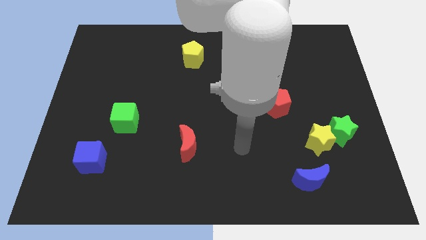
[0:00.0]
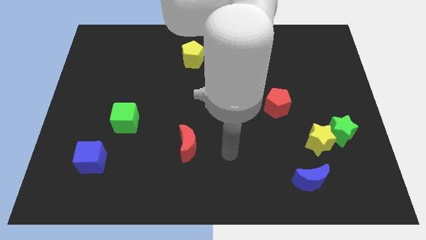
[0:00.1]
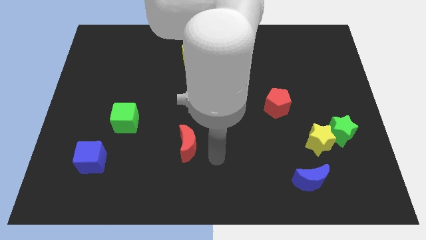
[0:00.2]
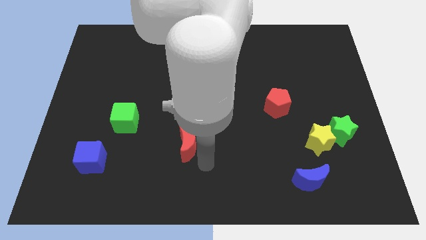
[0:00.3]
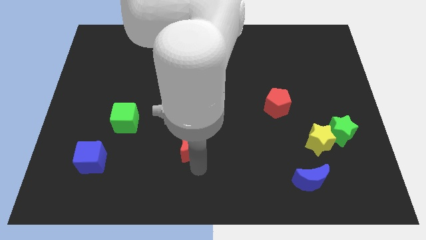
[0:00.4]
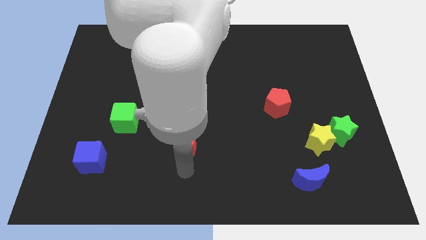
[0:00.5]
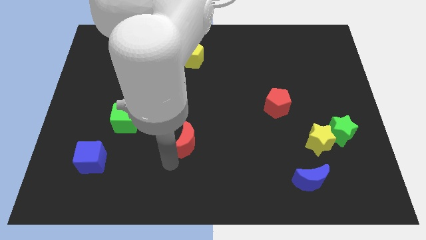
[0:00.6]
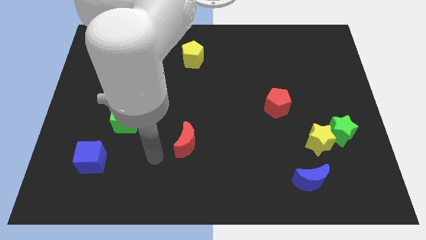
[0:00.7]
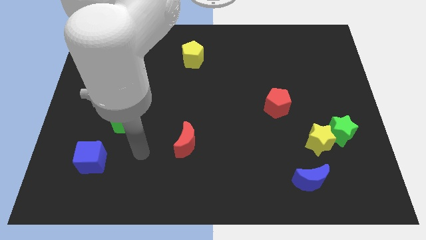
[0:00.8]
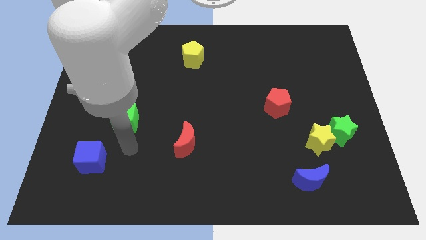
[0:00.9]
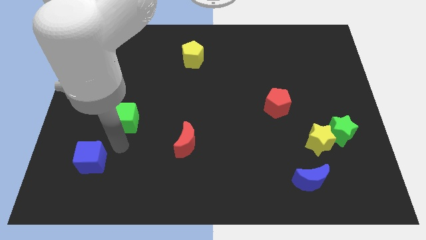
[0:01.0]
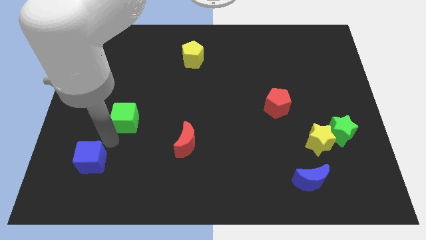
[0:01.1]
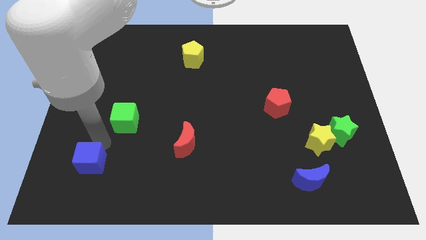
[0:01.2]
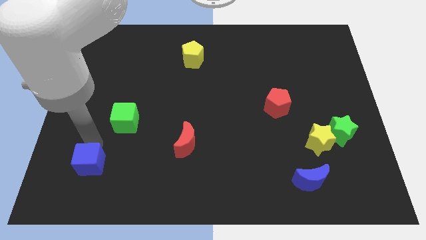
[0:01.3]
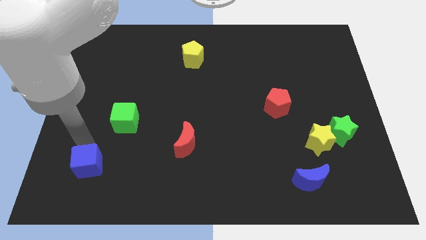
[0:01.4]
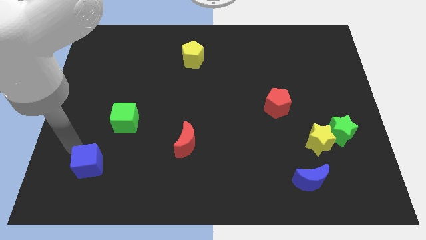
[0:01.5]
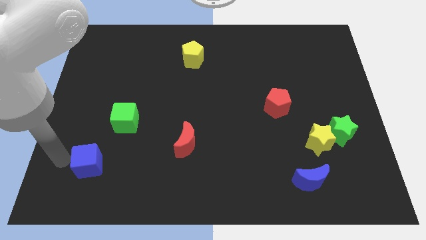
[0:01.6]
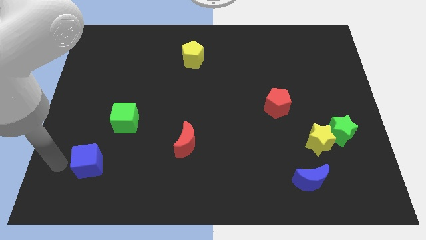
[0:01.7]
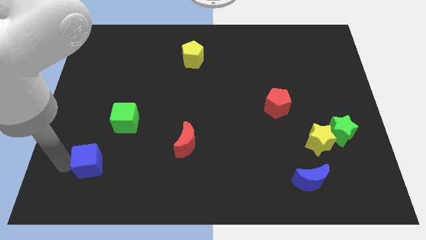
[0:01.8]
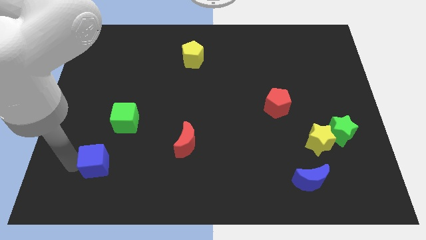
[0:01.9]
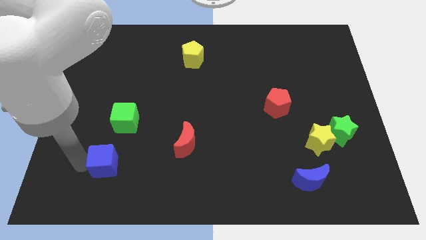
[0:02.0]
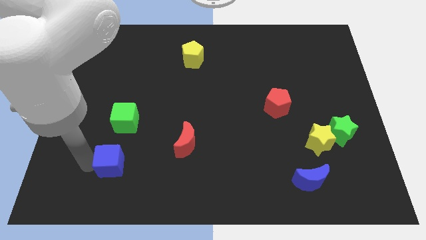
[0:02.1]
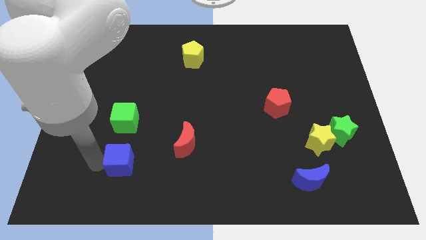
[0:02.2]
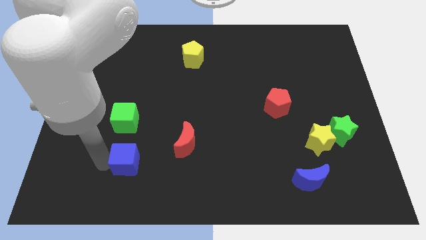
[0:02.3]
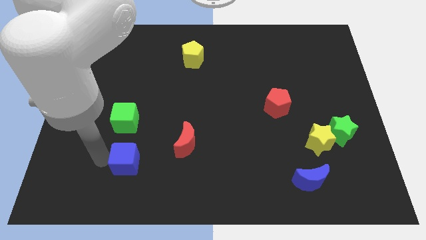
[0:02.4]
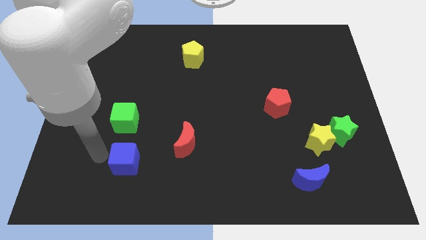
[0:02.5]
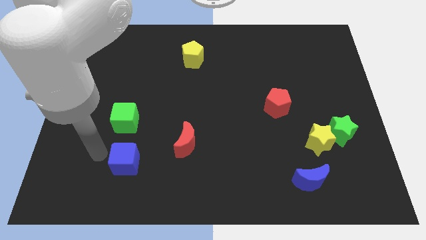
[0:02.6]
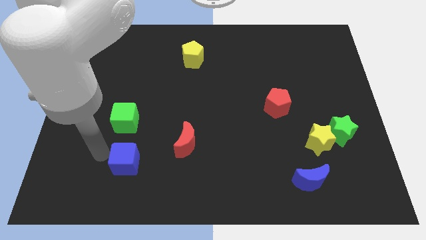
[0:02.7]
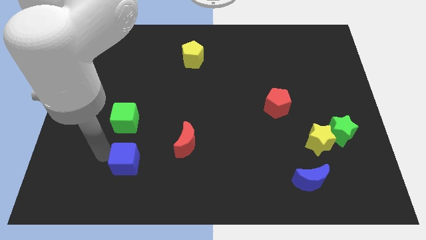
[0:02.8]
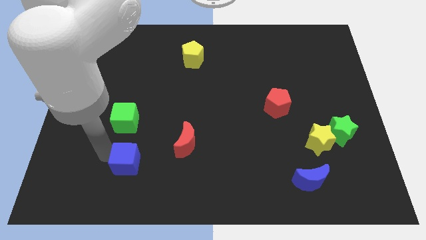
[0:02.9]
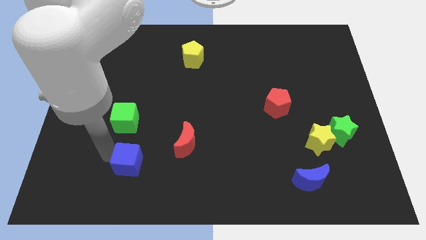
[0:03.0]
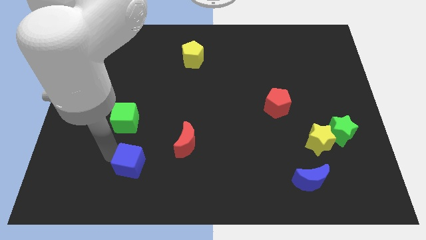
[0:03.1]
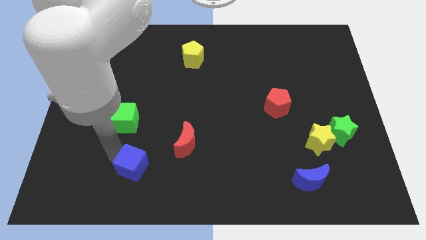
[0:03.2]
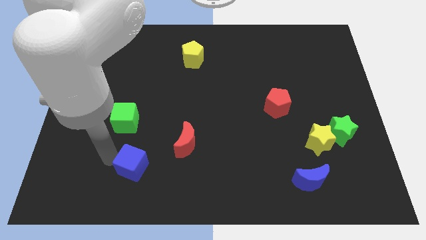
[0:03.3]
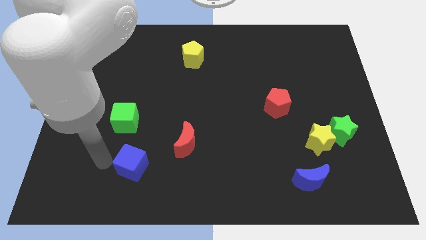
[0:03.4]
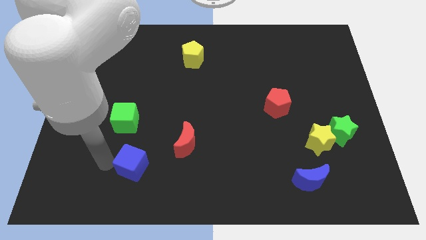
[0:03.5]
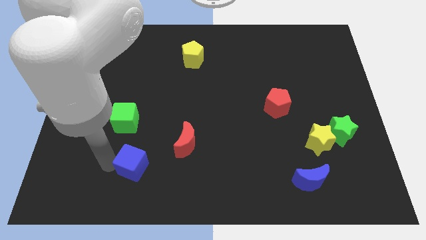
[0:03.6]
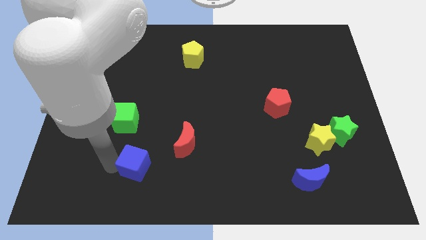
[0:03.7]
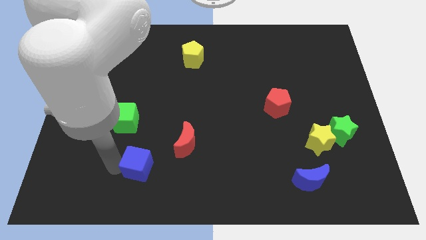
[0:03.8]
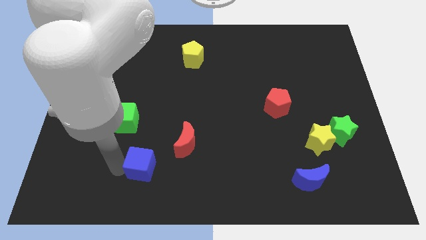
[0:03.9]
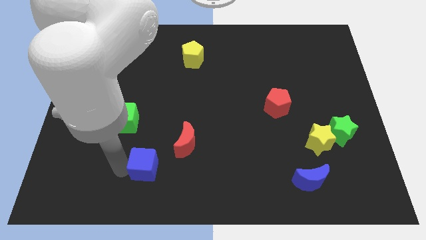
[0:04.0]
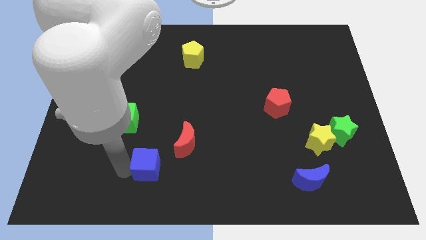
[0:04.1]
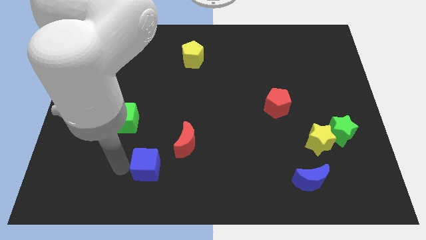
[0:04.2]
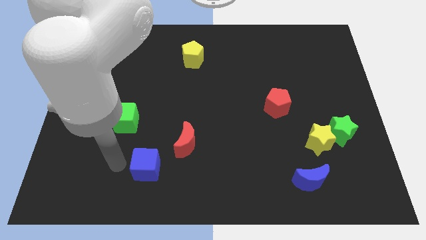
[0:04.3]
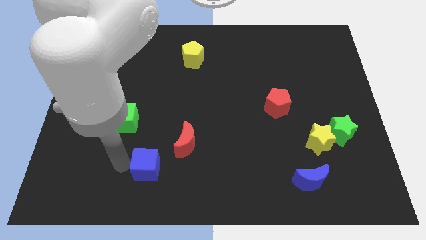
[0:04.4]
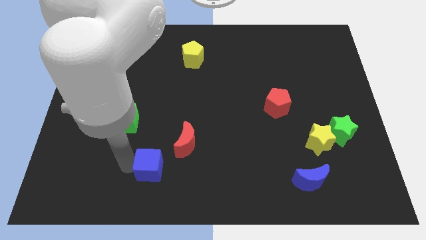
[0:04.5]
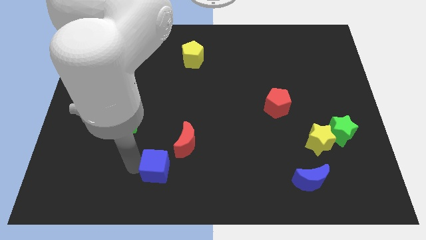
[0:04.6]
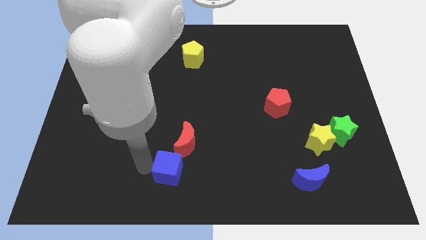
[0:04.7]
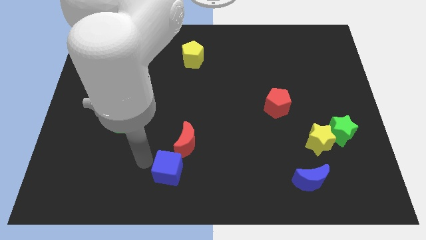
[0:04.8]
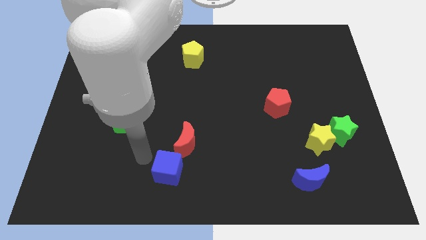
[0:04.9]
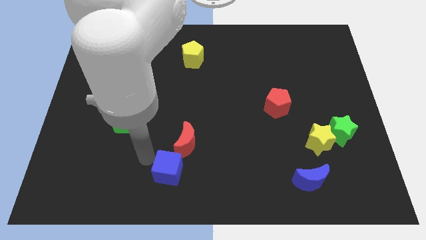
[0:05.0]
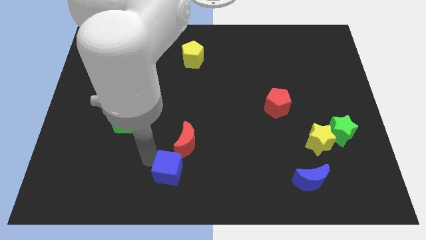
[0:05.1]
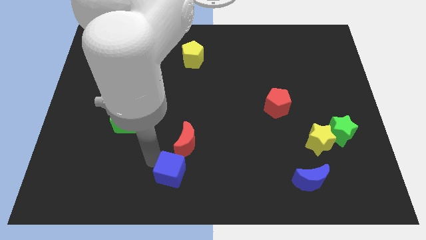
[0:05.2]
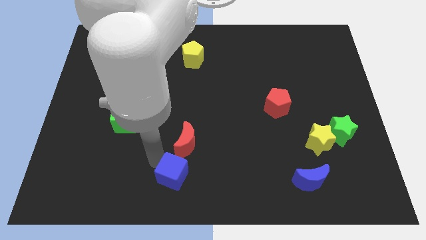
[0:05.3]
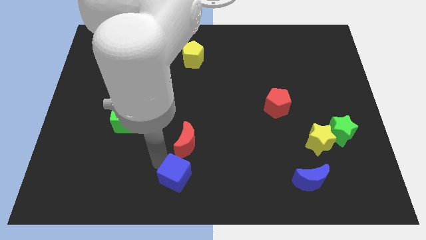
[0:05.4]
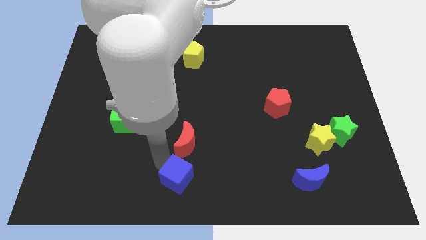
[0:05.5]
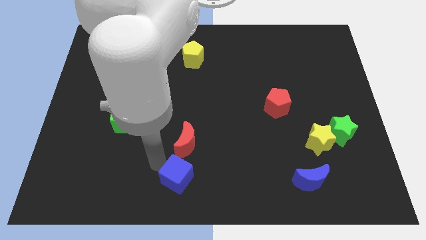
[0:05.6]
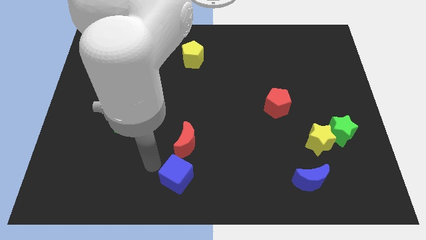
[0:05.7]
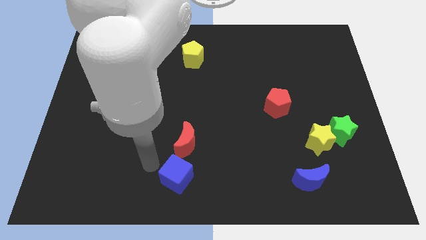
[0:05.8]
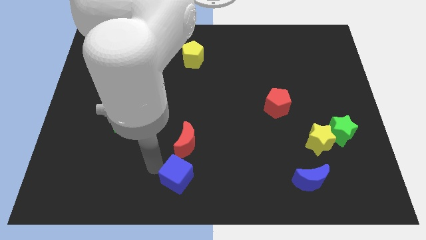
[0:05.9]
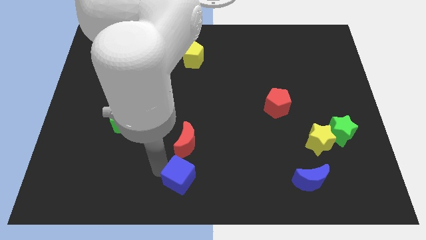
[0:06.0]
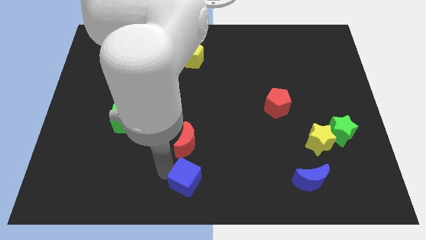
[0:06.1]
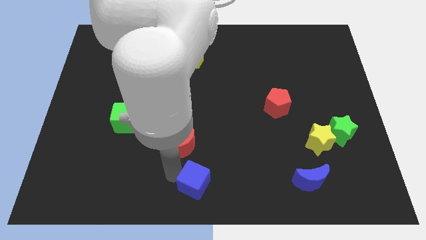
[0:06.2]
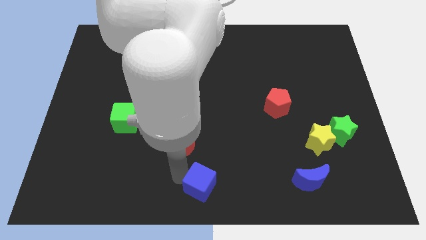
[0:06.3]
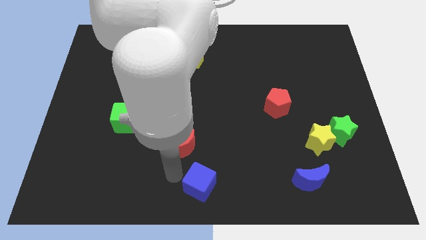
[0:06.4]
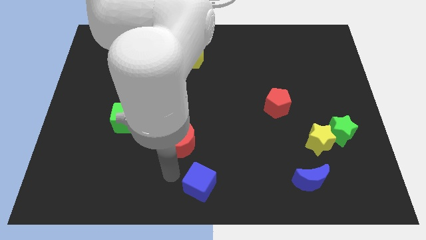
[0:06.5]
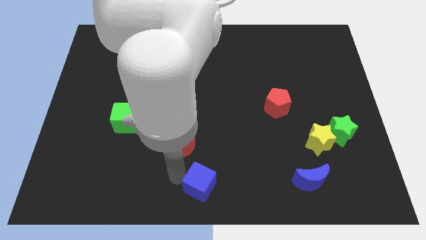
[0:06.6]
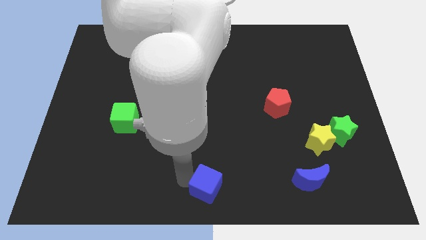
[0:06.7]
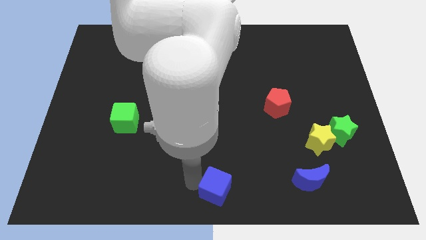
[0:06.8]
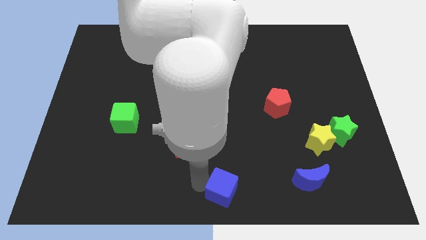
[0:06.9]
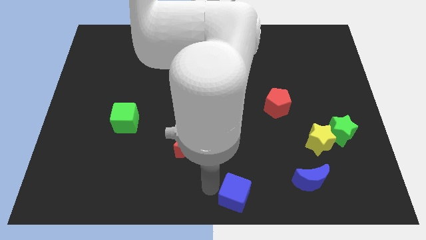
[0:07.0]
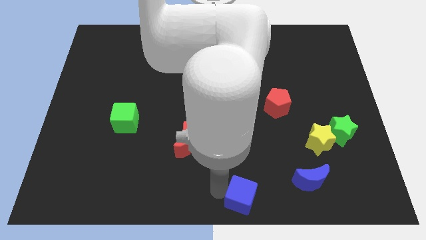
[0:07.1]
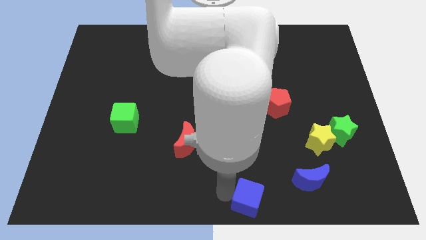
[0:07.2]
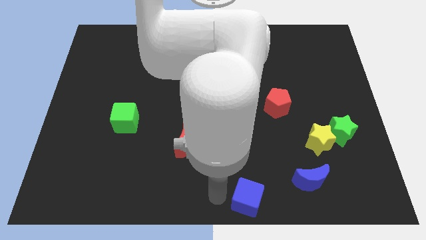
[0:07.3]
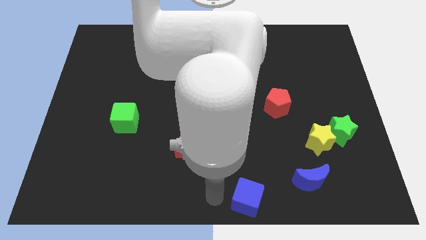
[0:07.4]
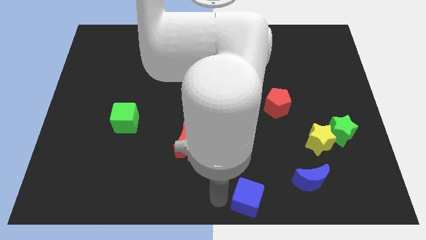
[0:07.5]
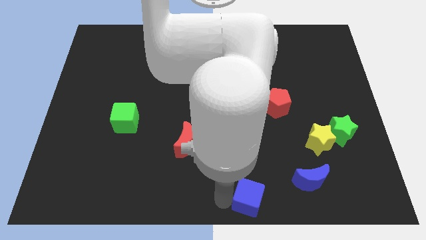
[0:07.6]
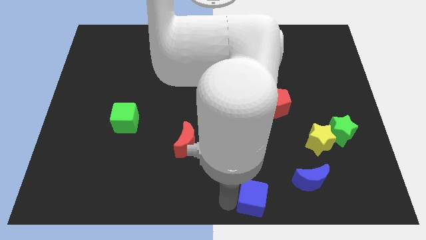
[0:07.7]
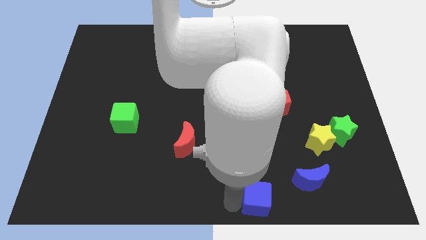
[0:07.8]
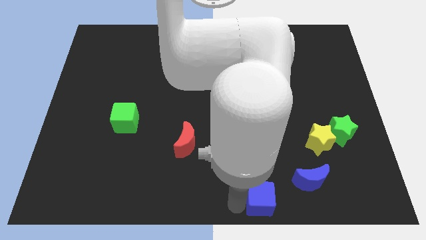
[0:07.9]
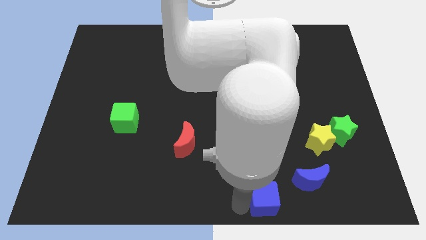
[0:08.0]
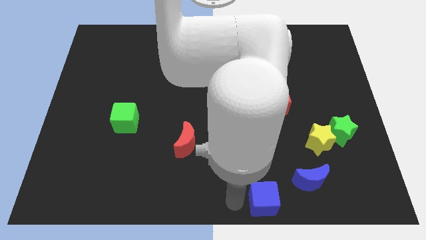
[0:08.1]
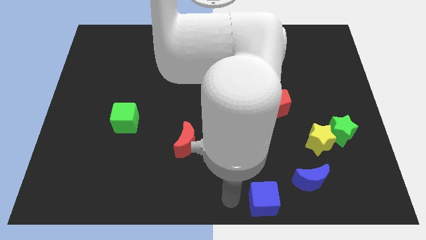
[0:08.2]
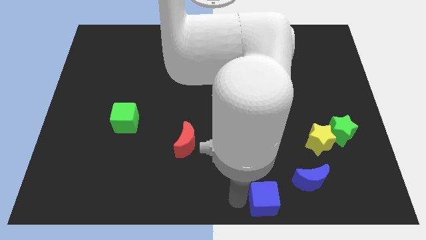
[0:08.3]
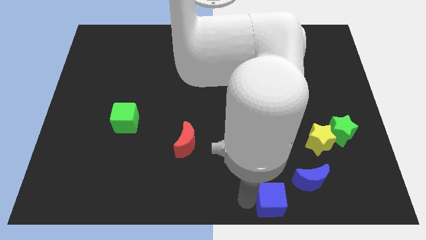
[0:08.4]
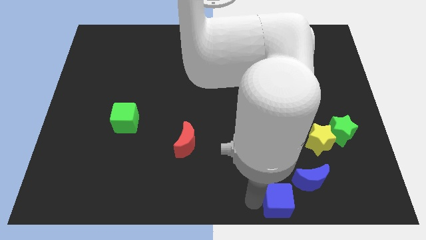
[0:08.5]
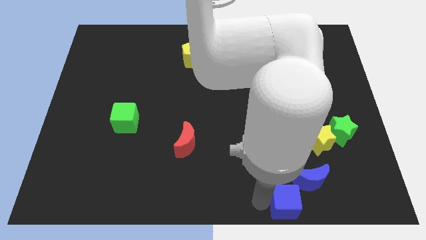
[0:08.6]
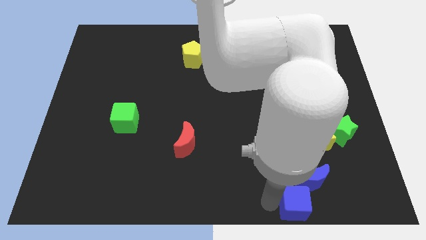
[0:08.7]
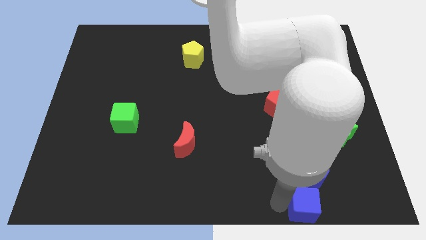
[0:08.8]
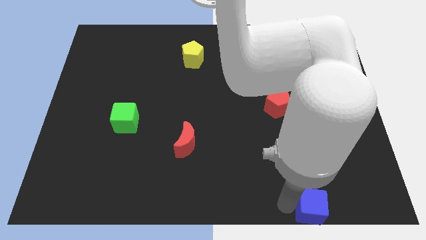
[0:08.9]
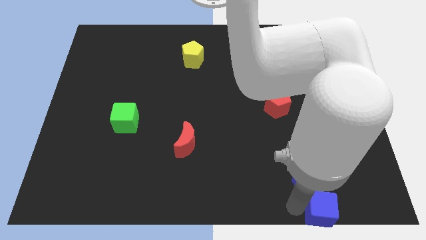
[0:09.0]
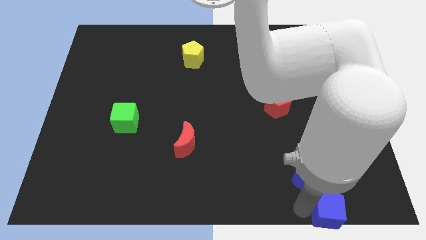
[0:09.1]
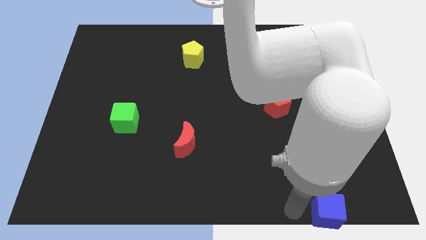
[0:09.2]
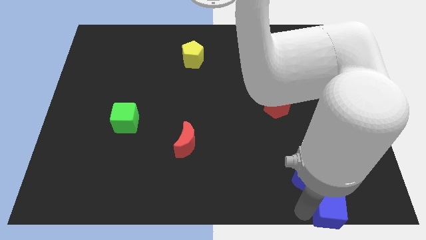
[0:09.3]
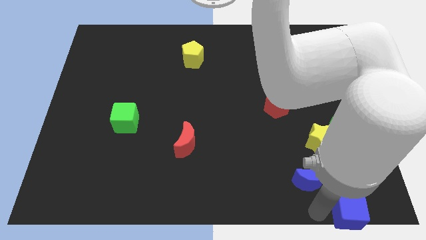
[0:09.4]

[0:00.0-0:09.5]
slide the blue cube to the bottom right corner
